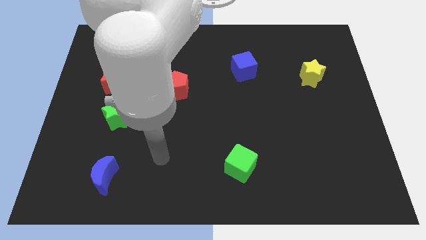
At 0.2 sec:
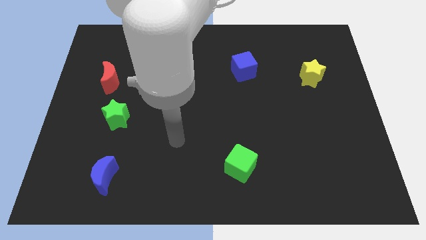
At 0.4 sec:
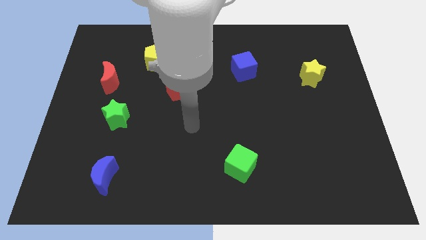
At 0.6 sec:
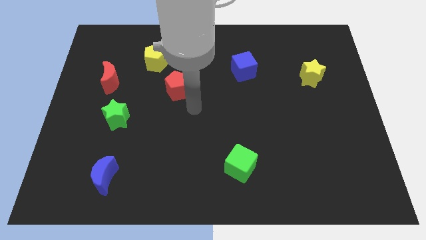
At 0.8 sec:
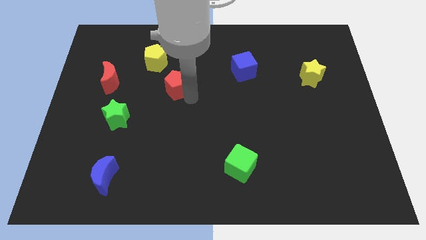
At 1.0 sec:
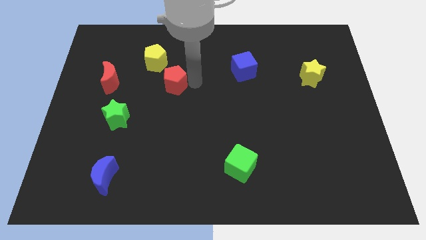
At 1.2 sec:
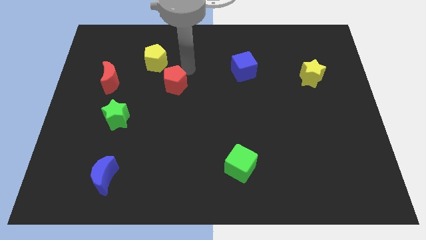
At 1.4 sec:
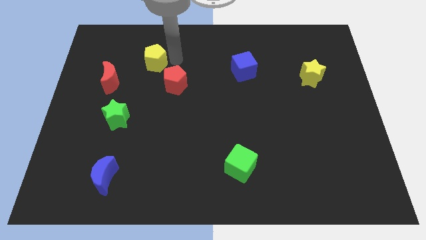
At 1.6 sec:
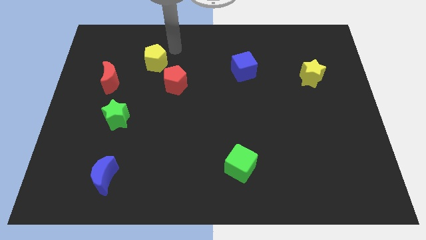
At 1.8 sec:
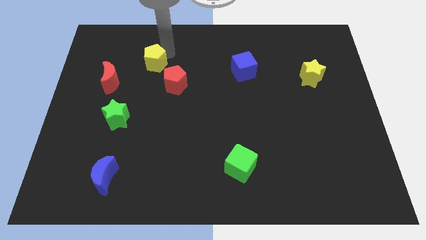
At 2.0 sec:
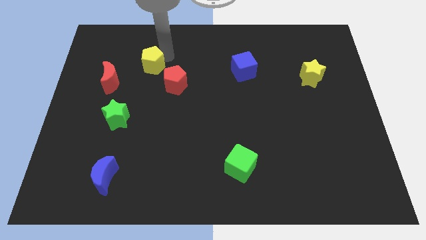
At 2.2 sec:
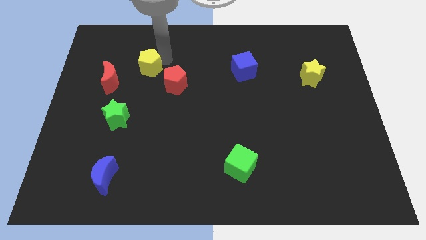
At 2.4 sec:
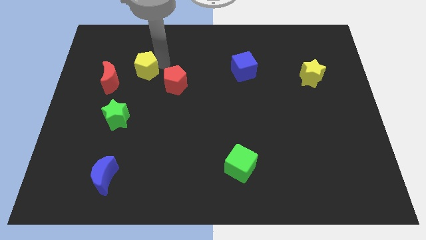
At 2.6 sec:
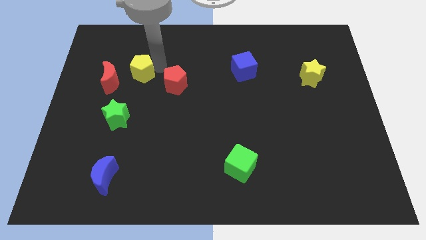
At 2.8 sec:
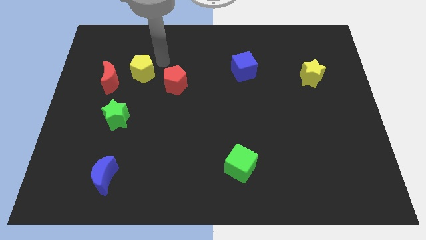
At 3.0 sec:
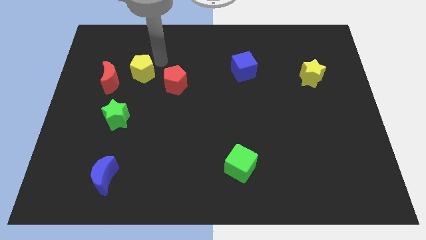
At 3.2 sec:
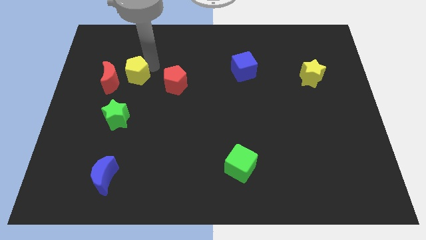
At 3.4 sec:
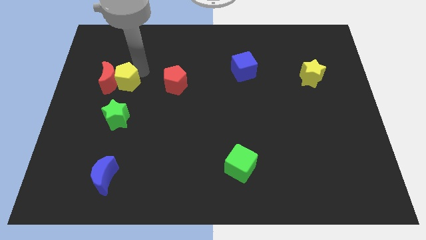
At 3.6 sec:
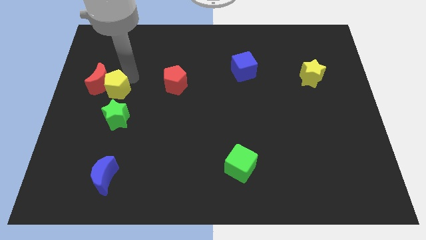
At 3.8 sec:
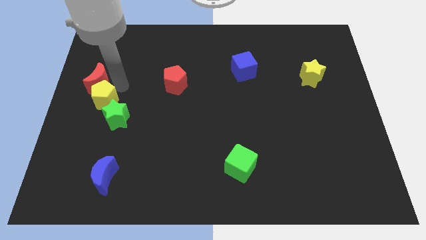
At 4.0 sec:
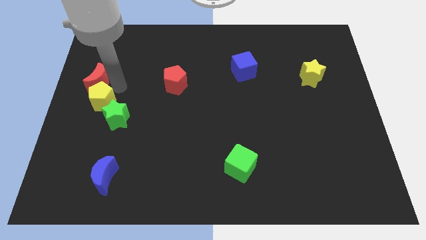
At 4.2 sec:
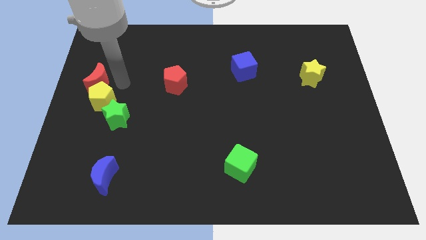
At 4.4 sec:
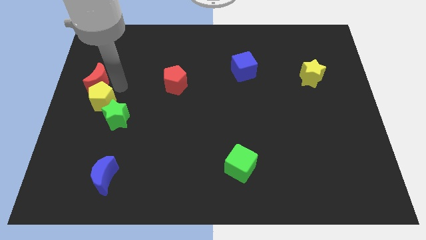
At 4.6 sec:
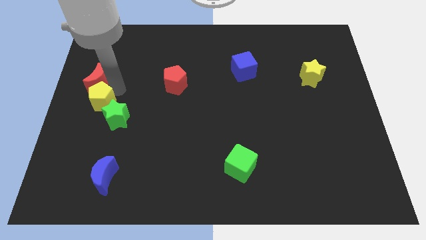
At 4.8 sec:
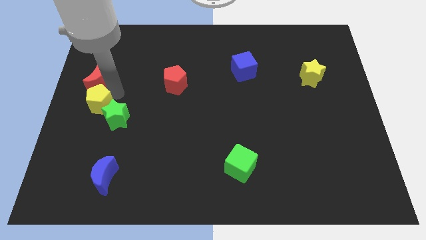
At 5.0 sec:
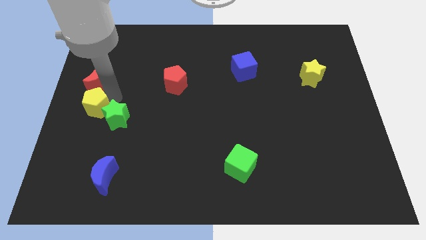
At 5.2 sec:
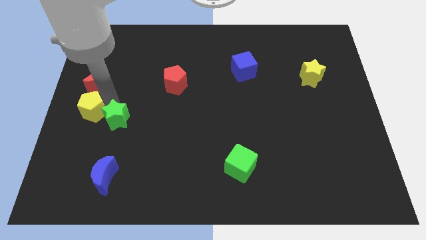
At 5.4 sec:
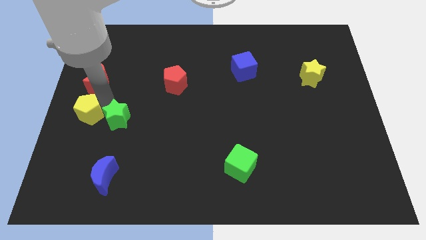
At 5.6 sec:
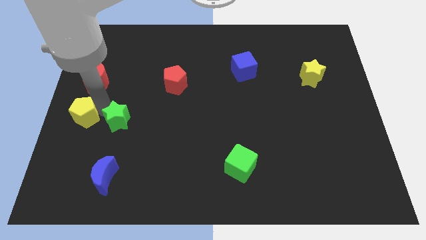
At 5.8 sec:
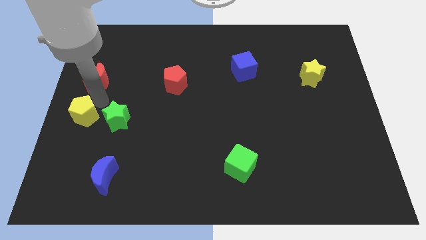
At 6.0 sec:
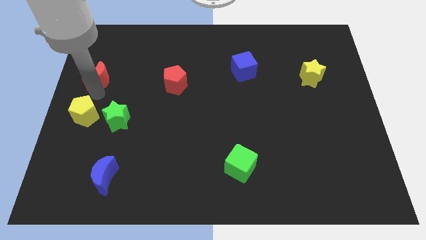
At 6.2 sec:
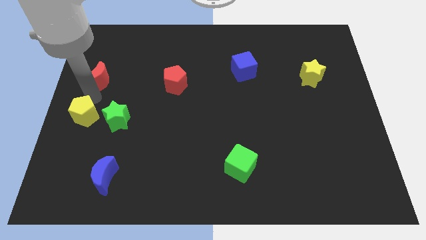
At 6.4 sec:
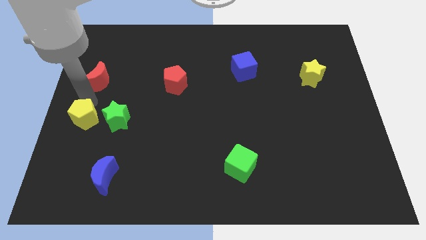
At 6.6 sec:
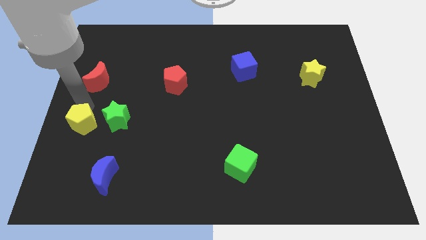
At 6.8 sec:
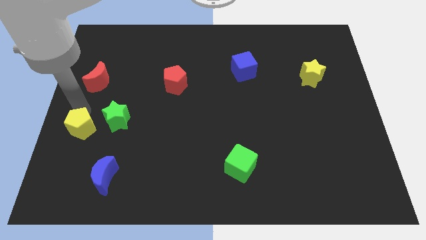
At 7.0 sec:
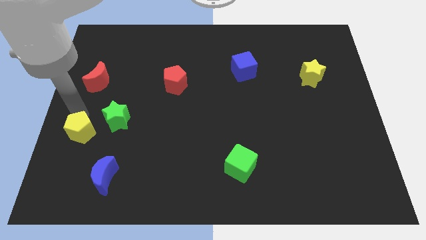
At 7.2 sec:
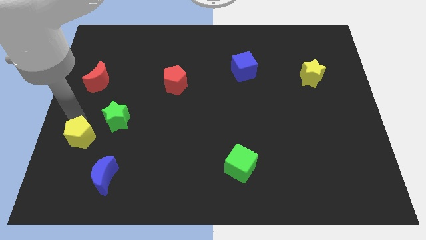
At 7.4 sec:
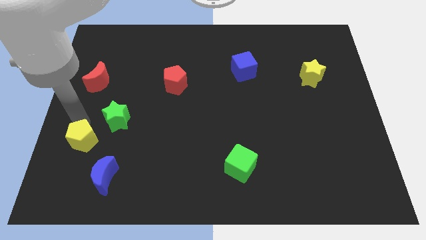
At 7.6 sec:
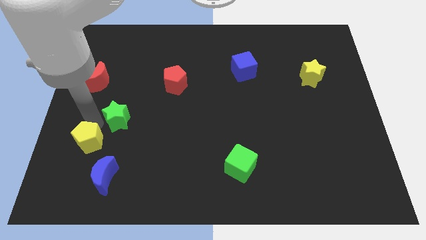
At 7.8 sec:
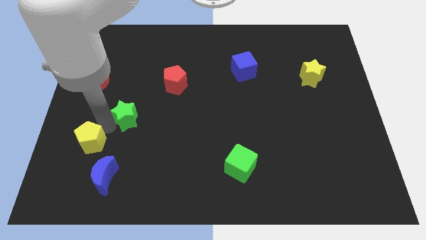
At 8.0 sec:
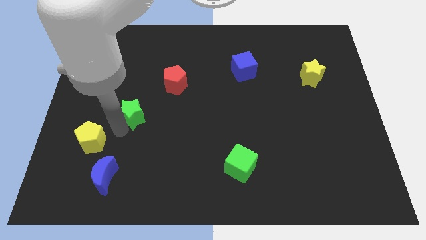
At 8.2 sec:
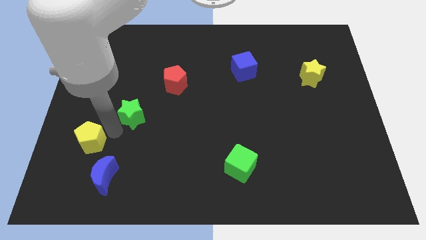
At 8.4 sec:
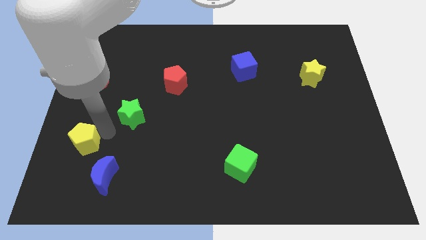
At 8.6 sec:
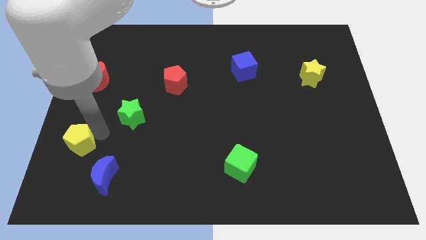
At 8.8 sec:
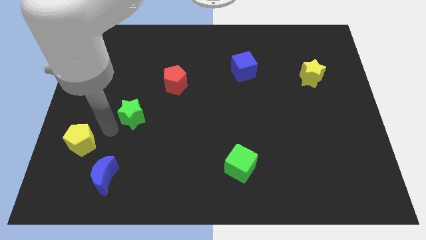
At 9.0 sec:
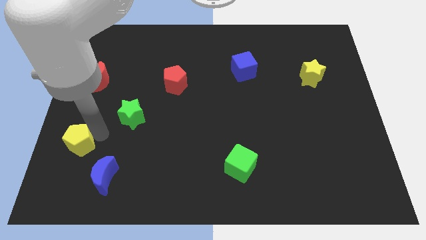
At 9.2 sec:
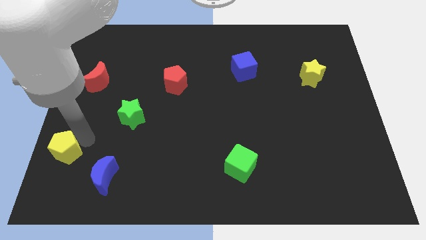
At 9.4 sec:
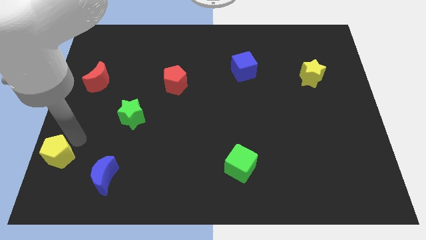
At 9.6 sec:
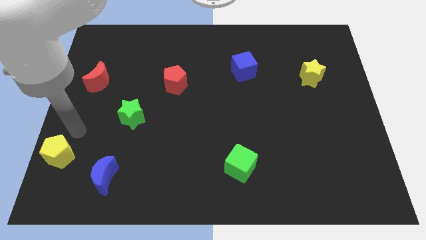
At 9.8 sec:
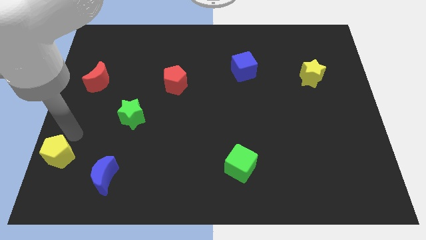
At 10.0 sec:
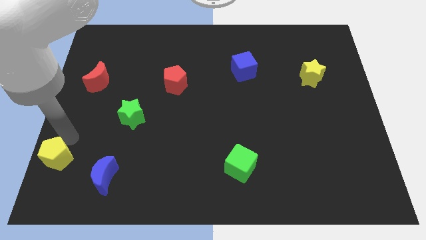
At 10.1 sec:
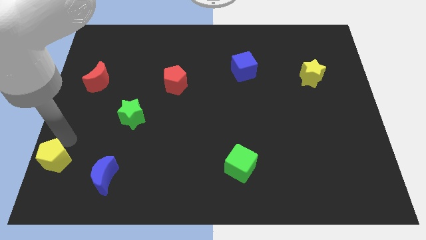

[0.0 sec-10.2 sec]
slide the yellow pentagon to the bottom left corner

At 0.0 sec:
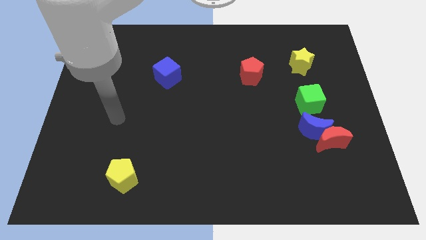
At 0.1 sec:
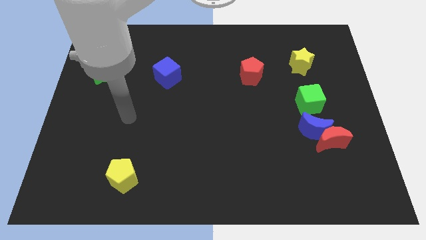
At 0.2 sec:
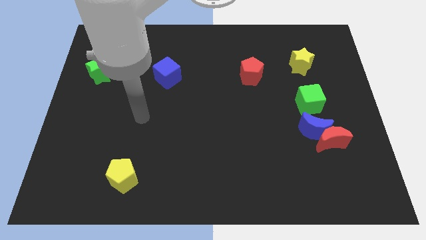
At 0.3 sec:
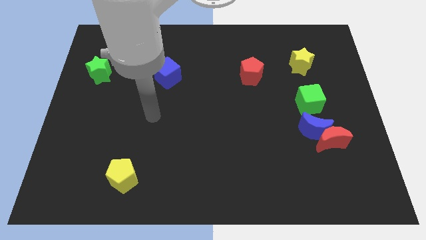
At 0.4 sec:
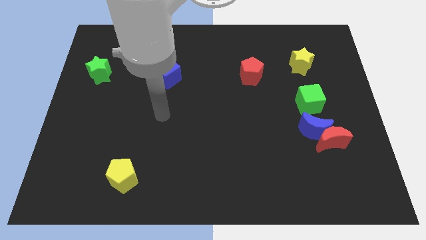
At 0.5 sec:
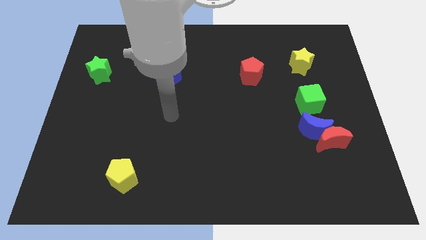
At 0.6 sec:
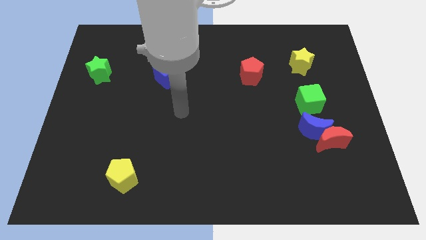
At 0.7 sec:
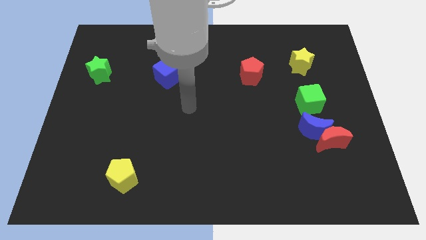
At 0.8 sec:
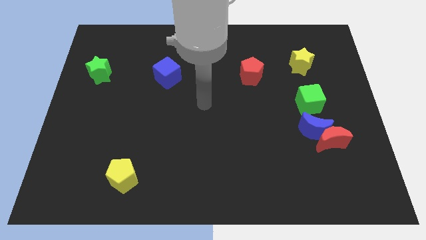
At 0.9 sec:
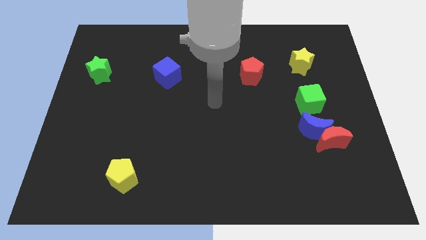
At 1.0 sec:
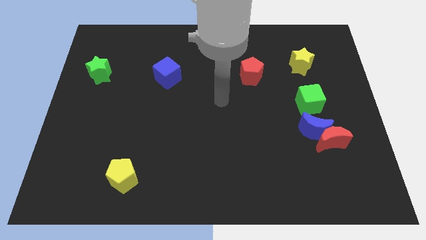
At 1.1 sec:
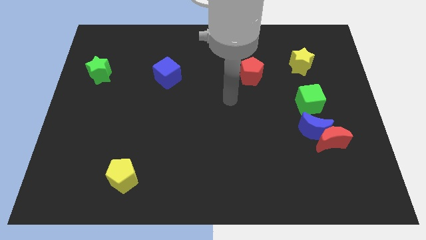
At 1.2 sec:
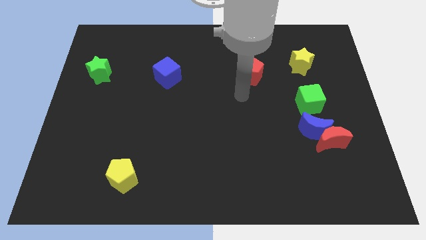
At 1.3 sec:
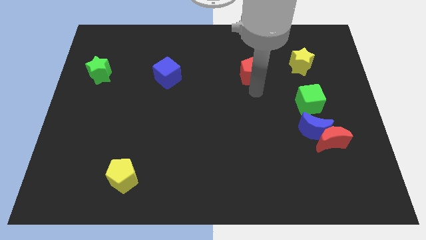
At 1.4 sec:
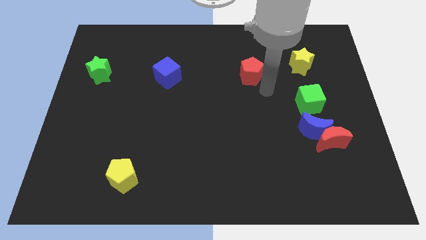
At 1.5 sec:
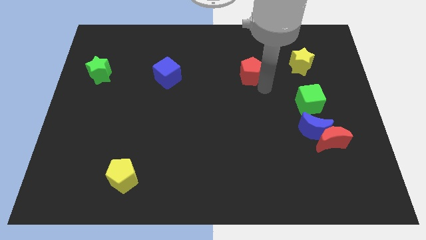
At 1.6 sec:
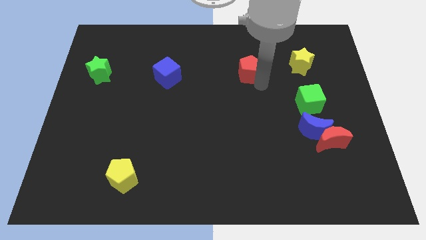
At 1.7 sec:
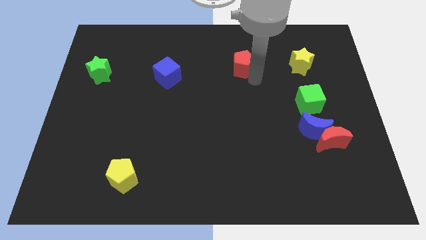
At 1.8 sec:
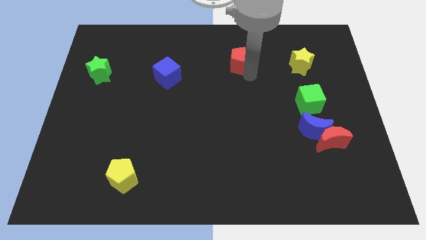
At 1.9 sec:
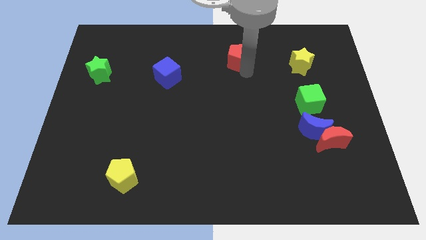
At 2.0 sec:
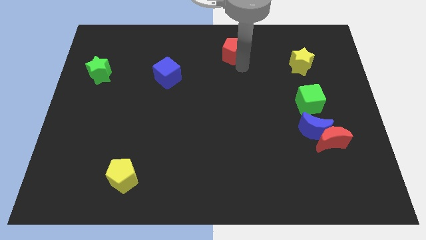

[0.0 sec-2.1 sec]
put the red pentagon to the top
